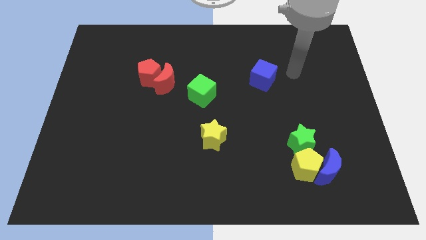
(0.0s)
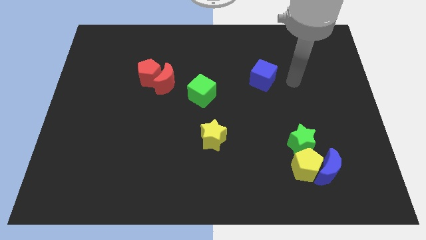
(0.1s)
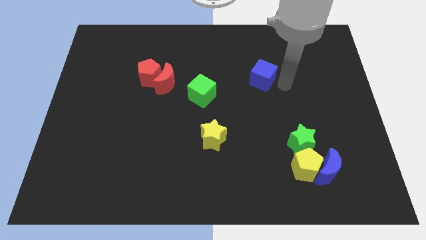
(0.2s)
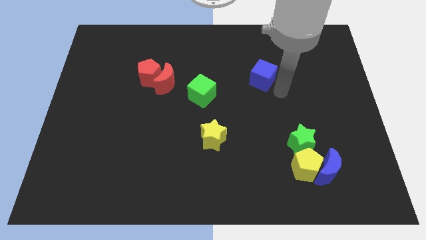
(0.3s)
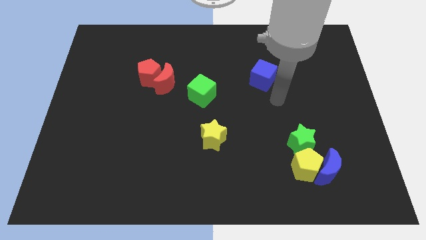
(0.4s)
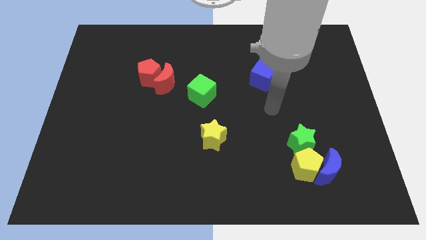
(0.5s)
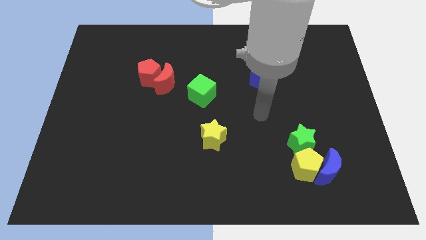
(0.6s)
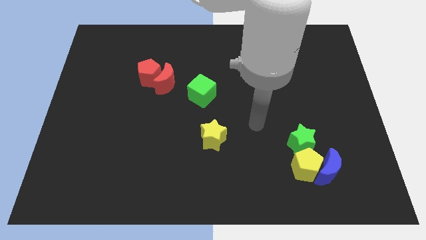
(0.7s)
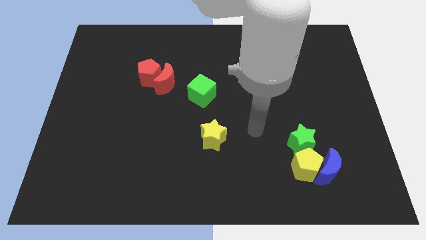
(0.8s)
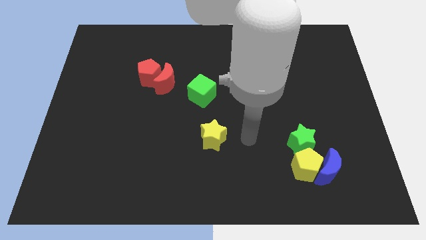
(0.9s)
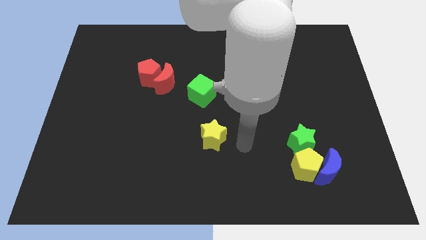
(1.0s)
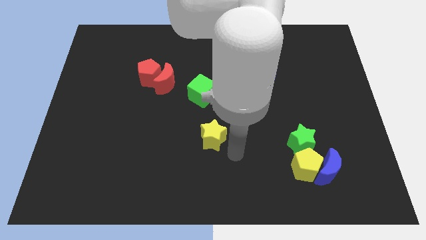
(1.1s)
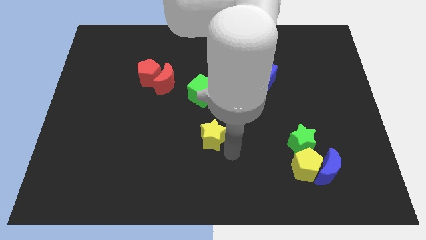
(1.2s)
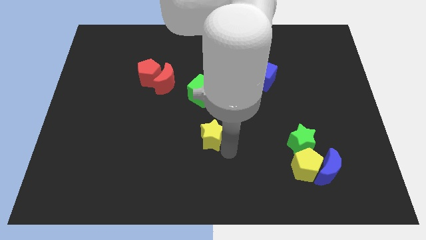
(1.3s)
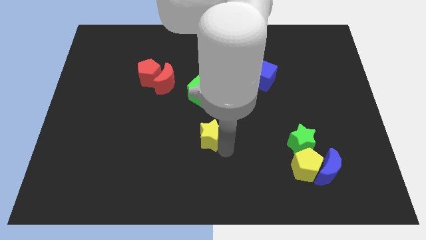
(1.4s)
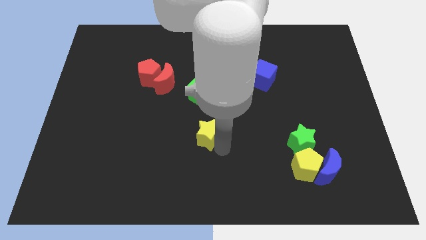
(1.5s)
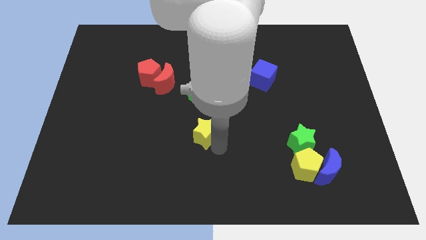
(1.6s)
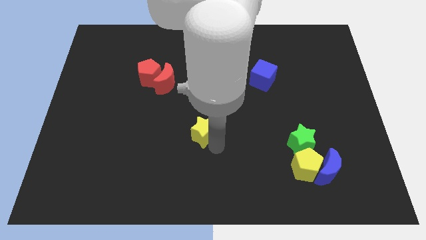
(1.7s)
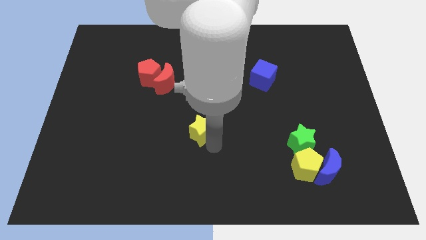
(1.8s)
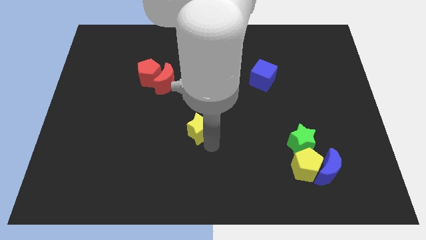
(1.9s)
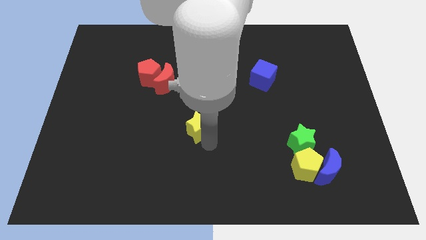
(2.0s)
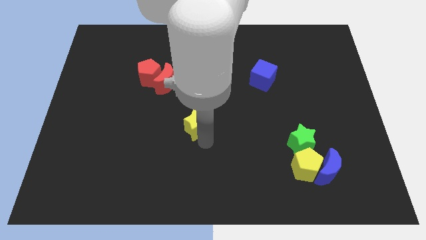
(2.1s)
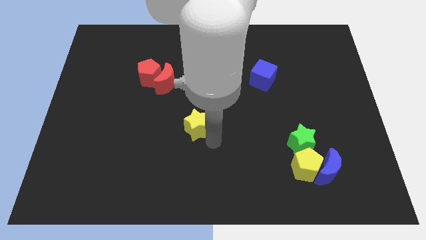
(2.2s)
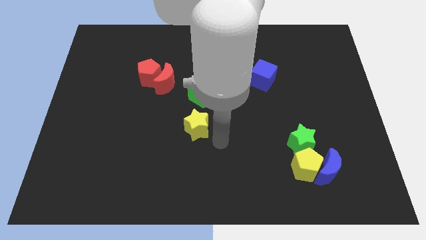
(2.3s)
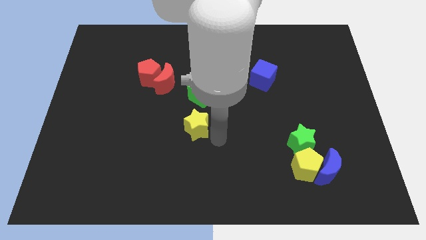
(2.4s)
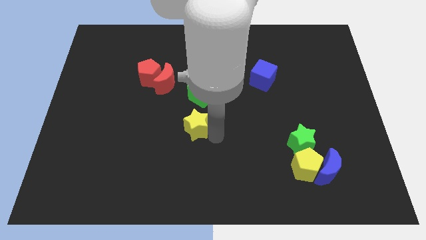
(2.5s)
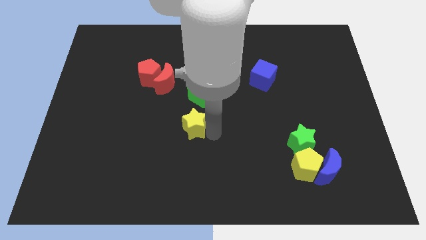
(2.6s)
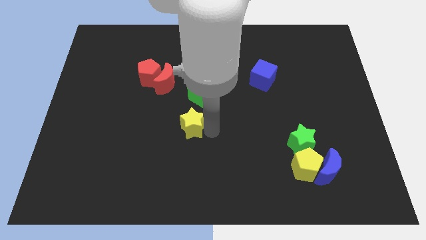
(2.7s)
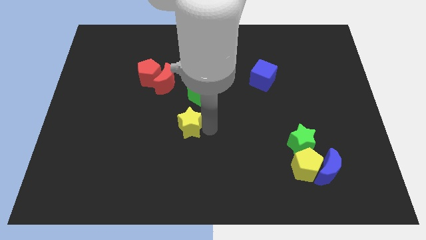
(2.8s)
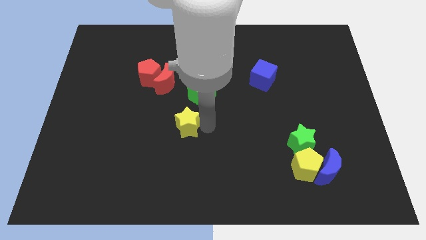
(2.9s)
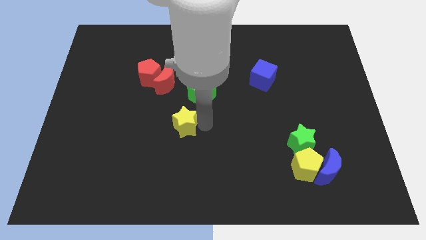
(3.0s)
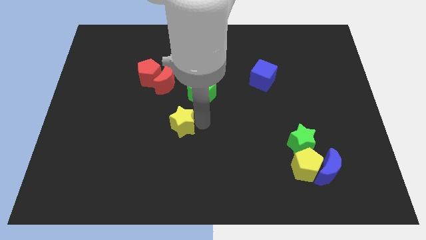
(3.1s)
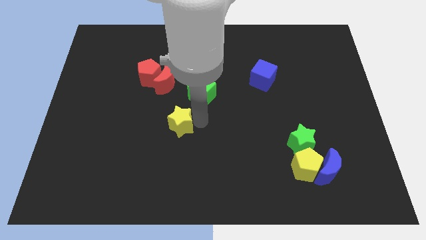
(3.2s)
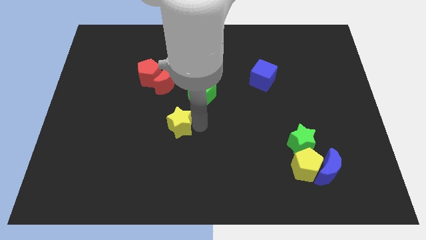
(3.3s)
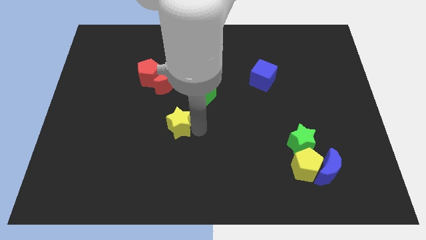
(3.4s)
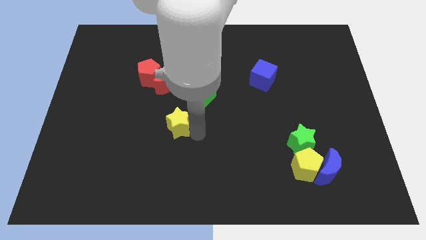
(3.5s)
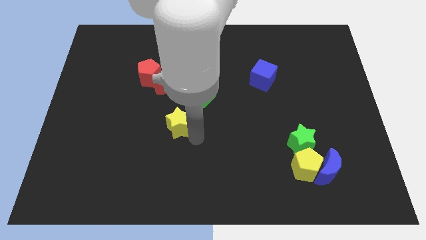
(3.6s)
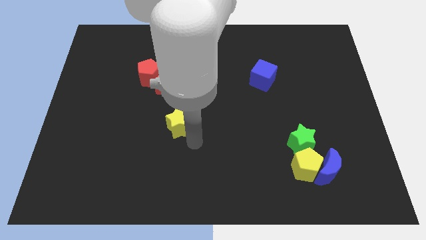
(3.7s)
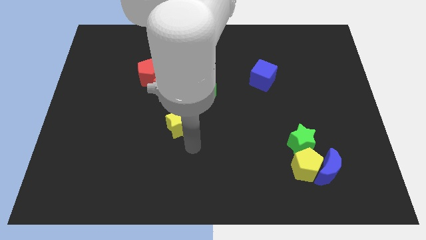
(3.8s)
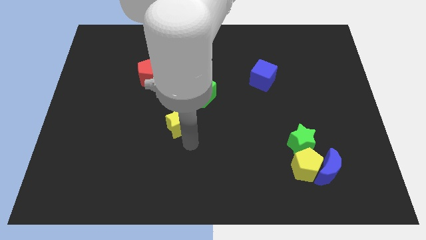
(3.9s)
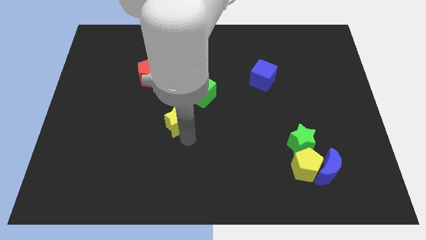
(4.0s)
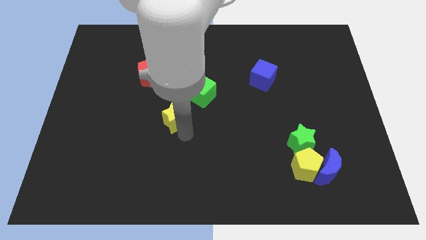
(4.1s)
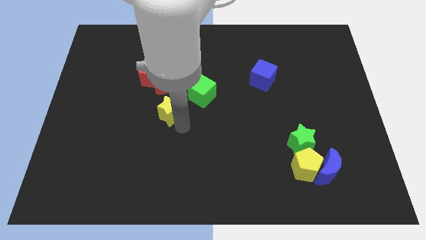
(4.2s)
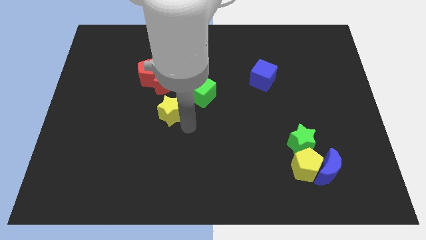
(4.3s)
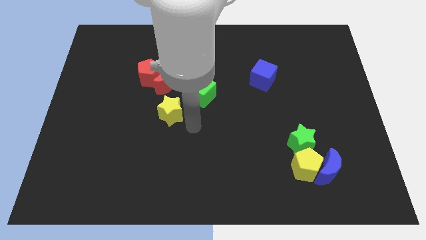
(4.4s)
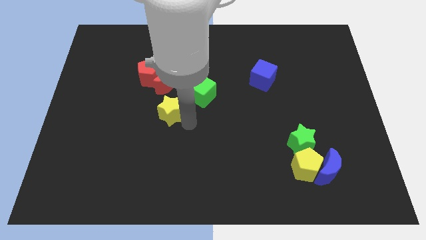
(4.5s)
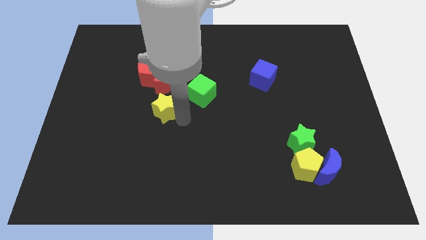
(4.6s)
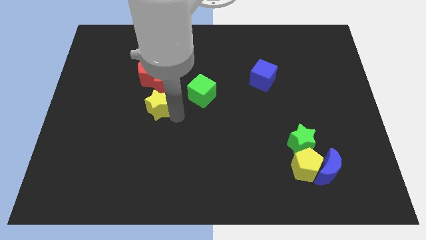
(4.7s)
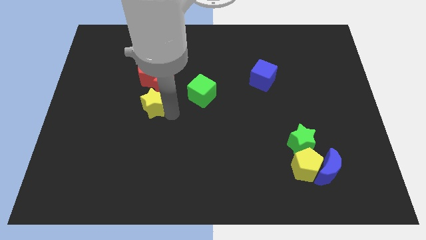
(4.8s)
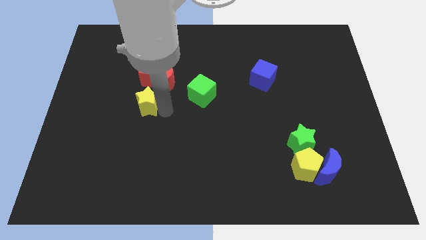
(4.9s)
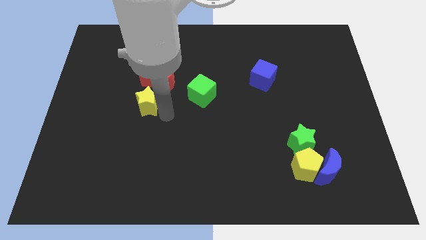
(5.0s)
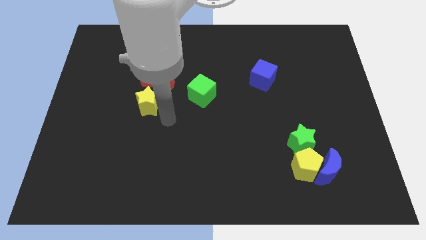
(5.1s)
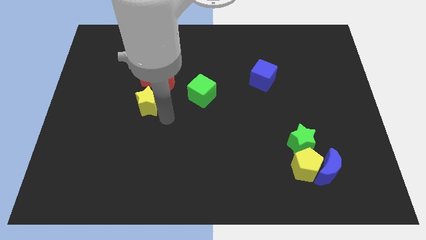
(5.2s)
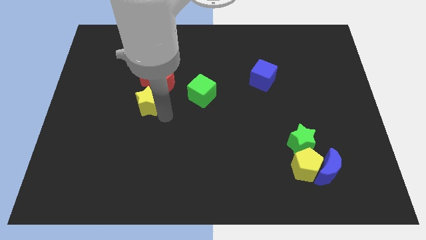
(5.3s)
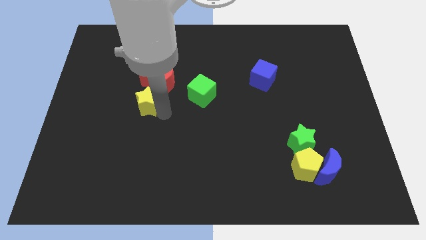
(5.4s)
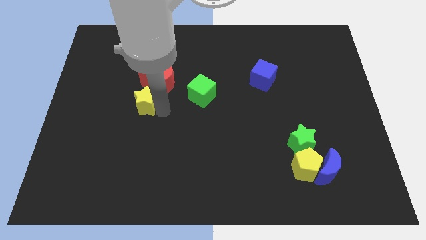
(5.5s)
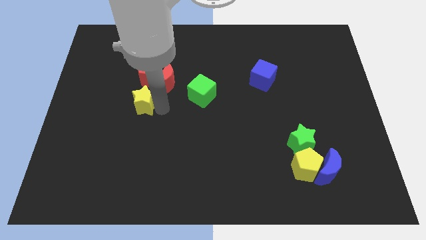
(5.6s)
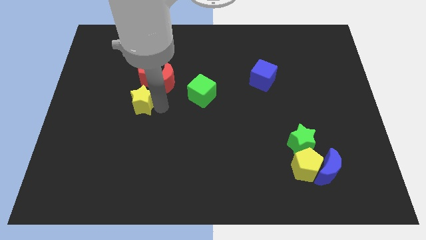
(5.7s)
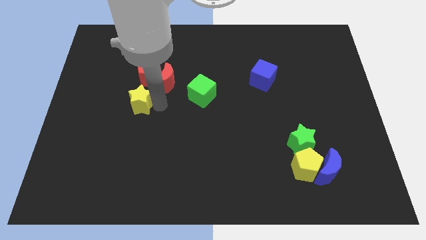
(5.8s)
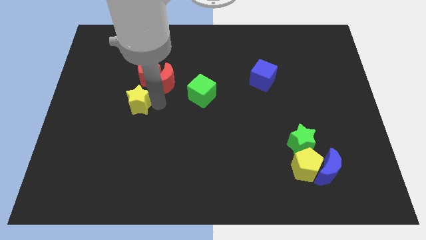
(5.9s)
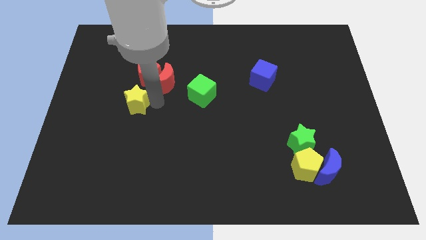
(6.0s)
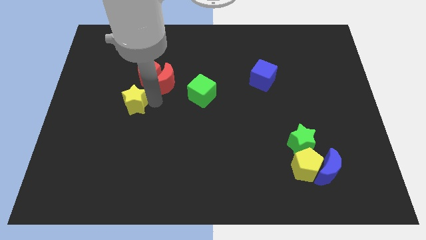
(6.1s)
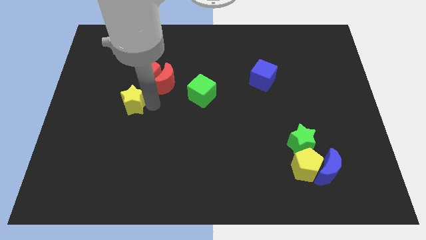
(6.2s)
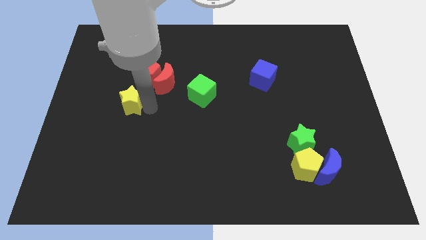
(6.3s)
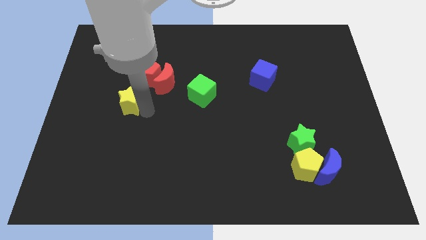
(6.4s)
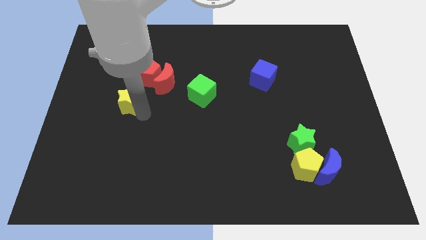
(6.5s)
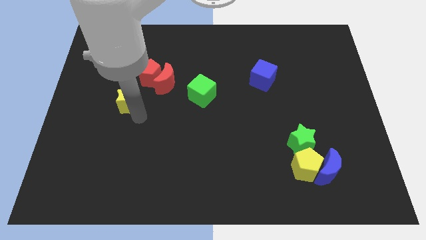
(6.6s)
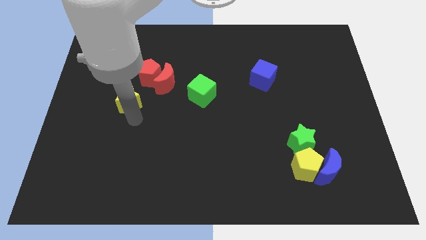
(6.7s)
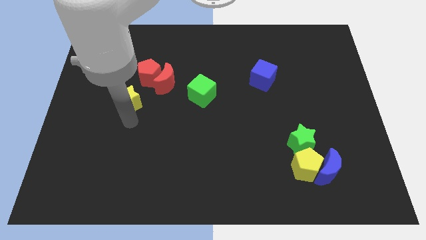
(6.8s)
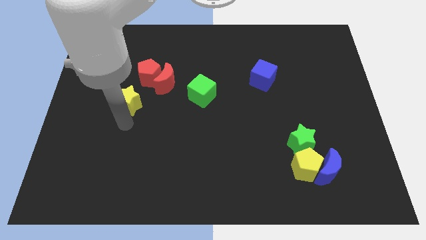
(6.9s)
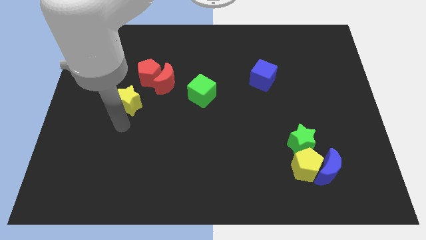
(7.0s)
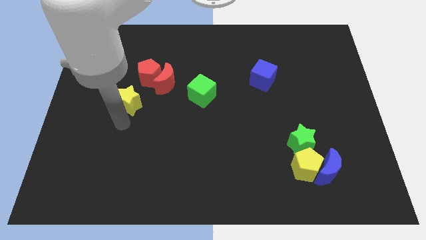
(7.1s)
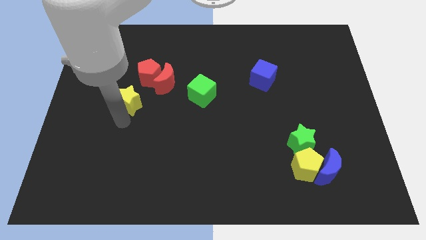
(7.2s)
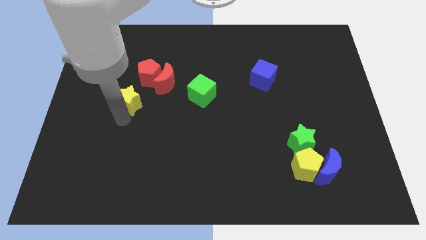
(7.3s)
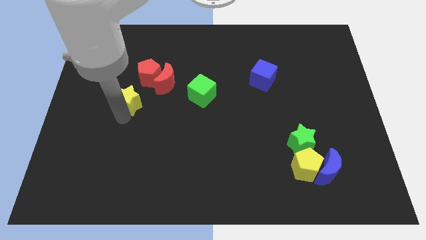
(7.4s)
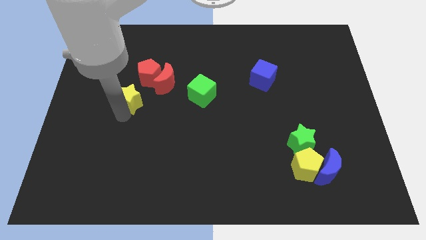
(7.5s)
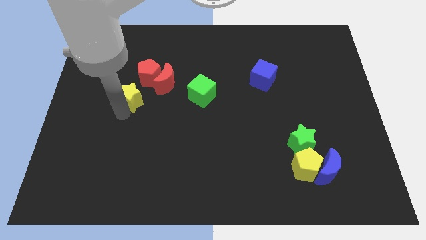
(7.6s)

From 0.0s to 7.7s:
move the yellow star diagonally up and left

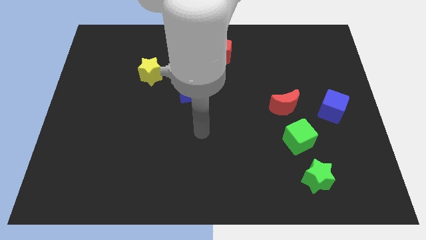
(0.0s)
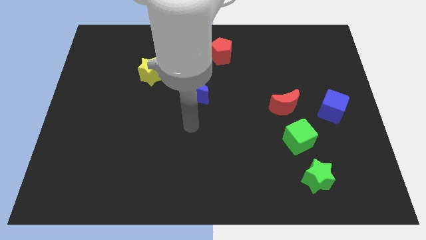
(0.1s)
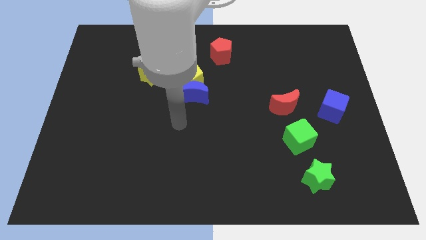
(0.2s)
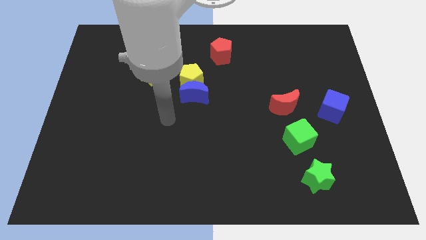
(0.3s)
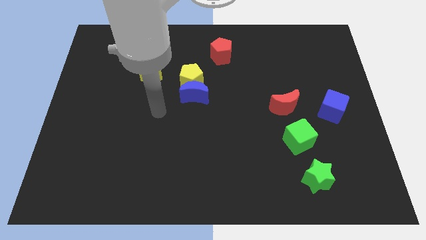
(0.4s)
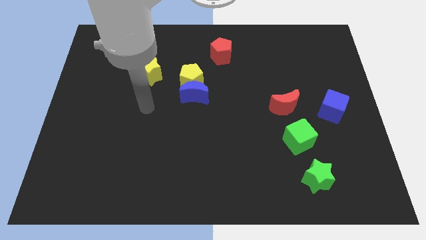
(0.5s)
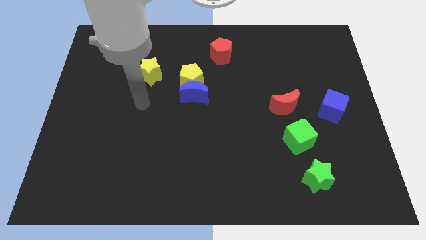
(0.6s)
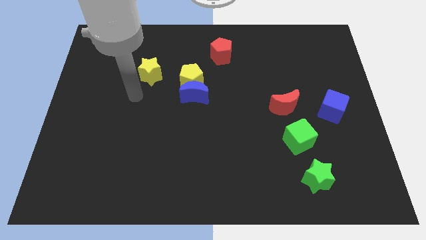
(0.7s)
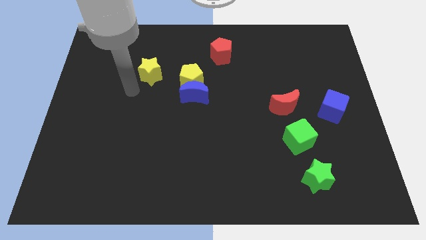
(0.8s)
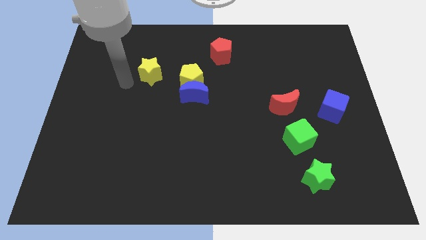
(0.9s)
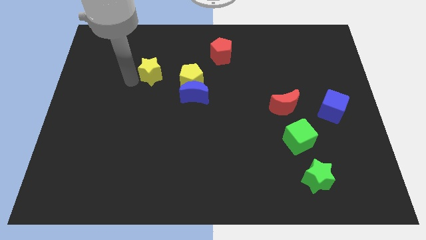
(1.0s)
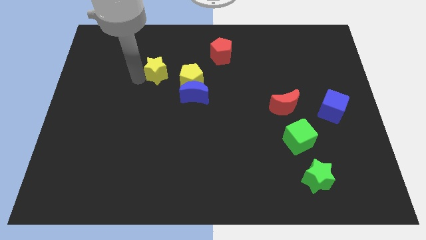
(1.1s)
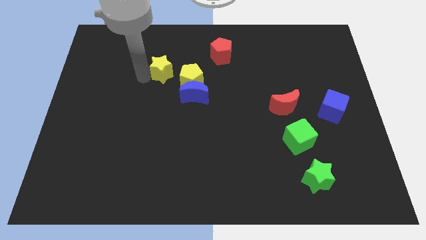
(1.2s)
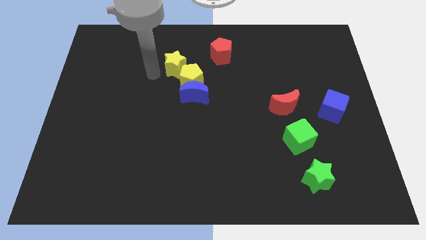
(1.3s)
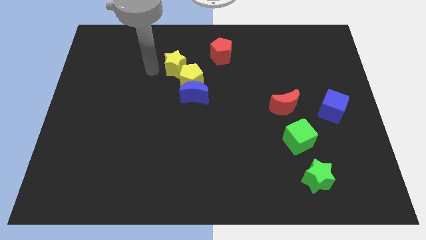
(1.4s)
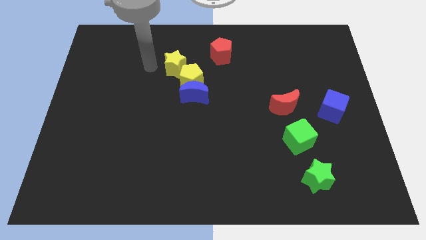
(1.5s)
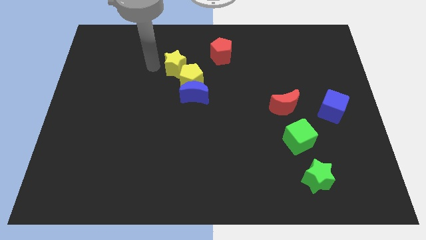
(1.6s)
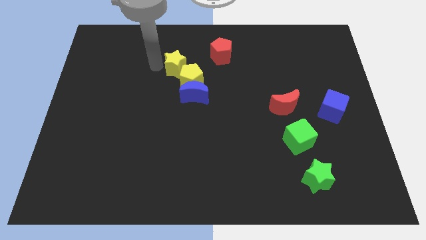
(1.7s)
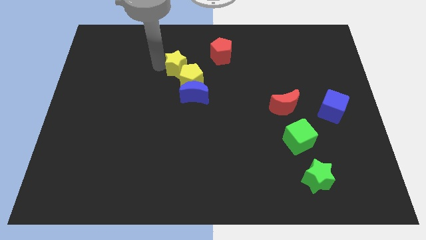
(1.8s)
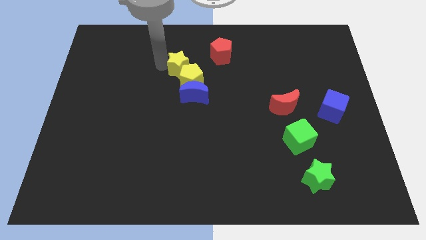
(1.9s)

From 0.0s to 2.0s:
slide the yellow star slightly right
